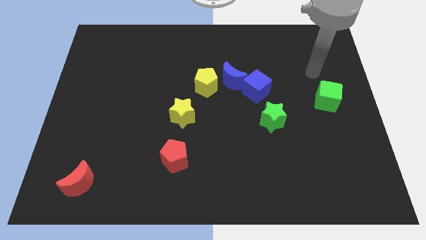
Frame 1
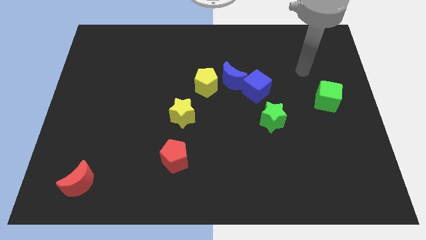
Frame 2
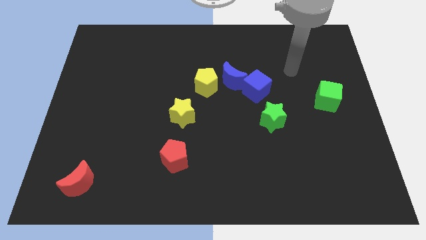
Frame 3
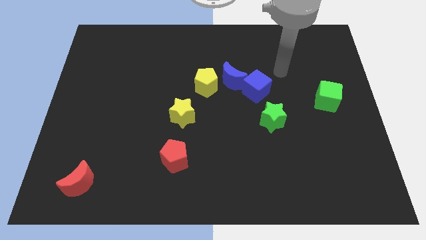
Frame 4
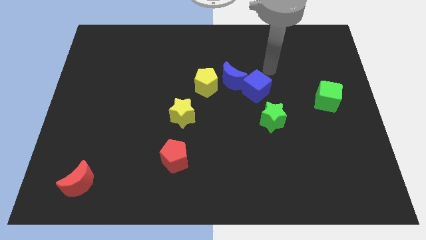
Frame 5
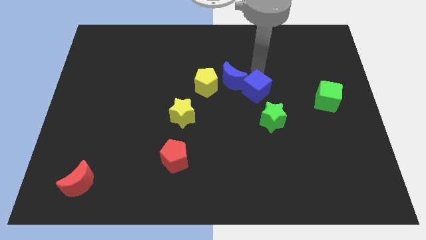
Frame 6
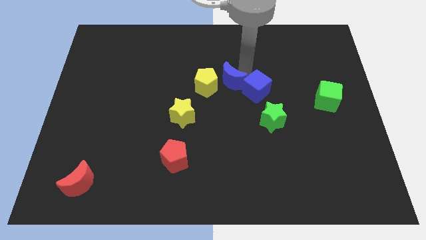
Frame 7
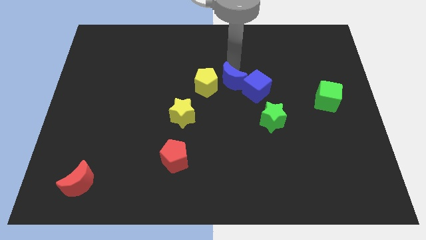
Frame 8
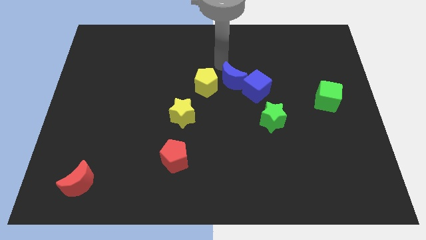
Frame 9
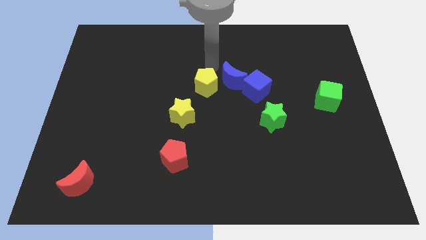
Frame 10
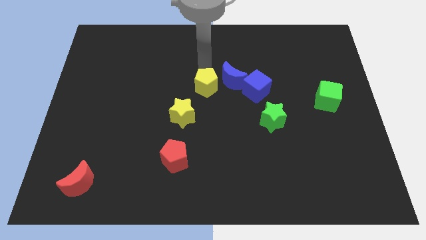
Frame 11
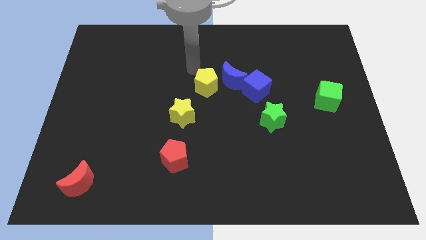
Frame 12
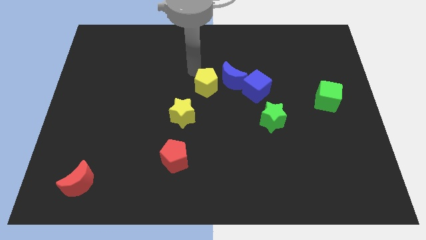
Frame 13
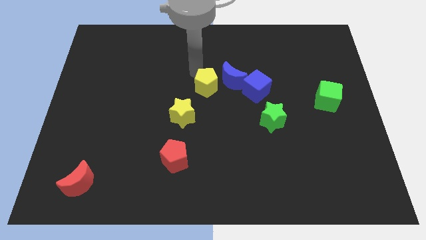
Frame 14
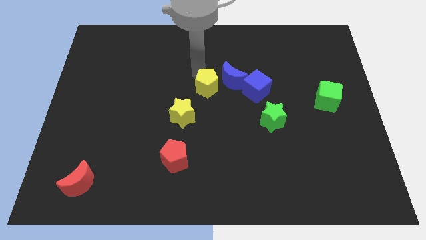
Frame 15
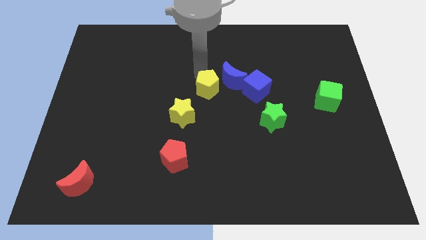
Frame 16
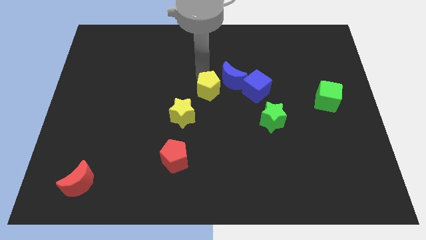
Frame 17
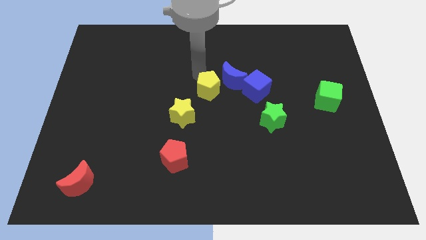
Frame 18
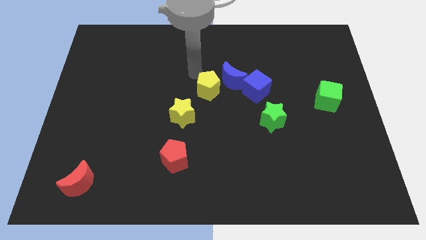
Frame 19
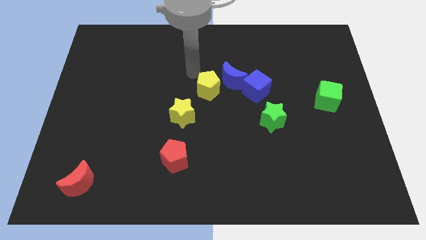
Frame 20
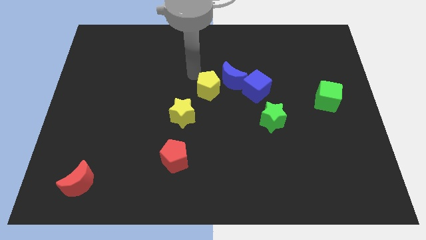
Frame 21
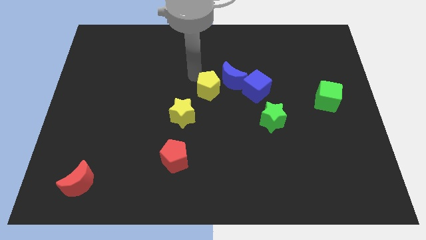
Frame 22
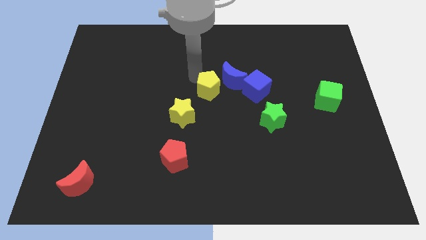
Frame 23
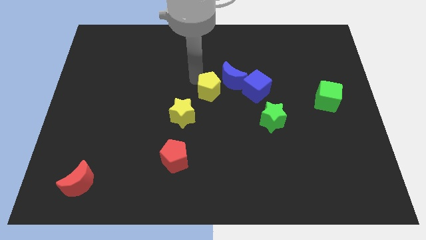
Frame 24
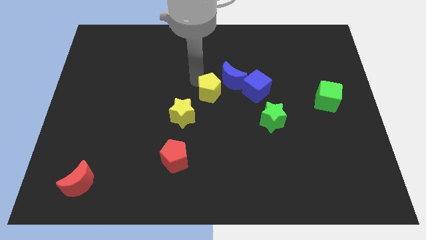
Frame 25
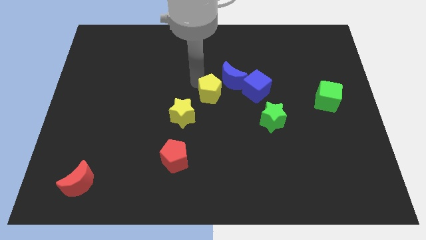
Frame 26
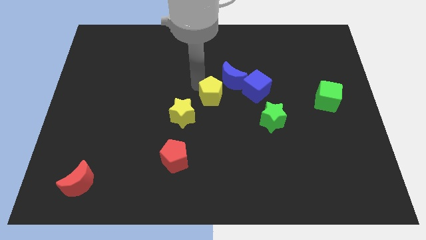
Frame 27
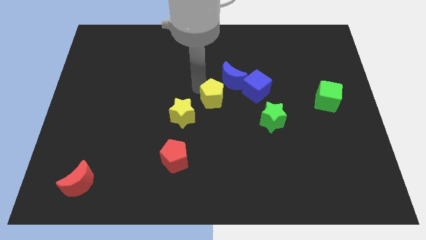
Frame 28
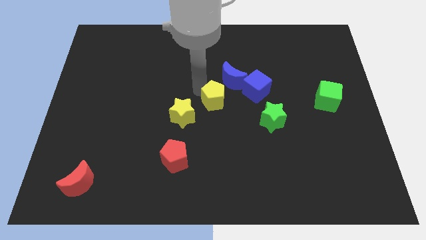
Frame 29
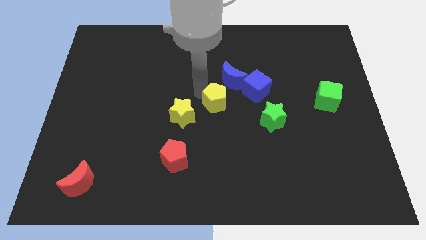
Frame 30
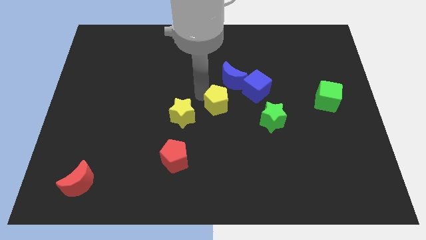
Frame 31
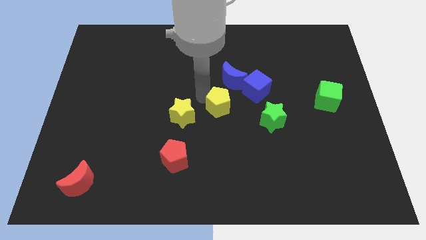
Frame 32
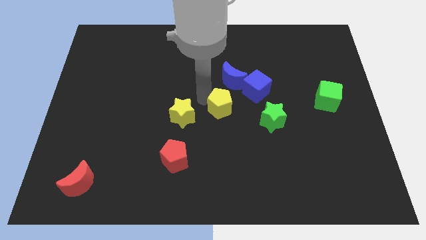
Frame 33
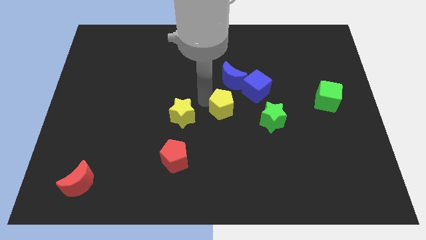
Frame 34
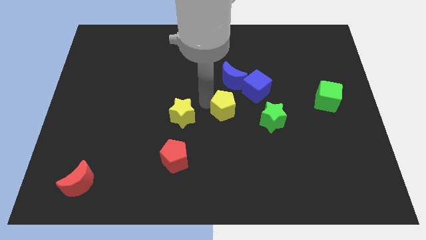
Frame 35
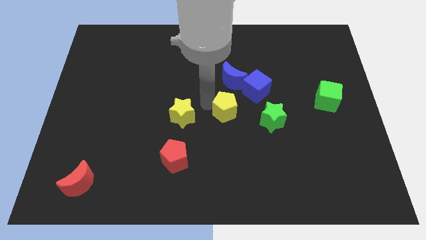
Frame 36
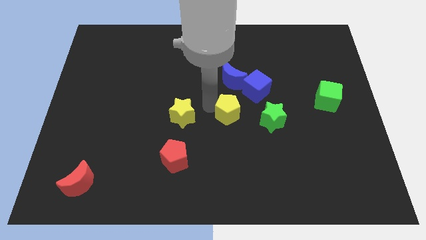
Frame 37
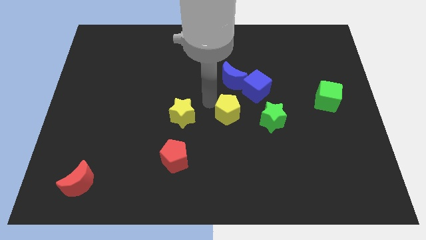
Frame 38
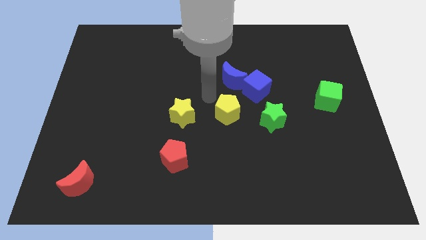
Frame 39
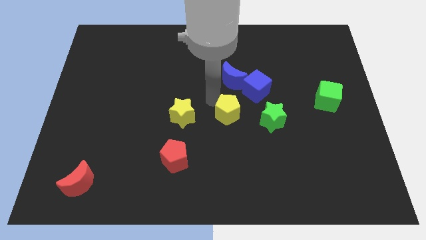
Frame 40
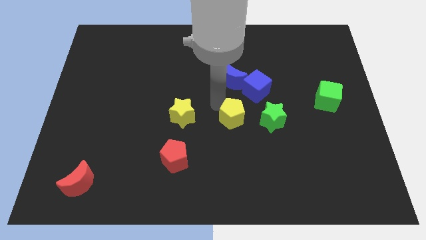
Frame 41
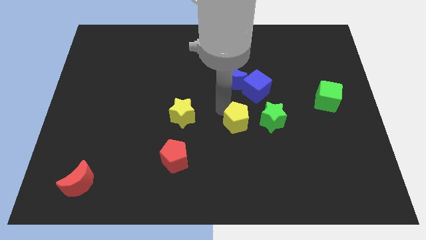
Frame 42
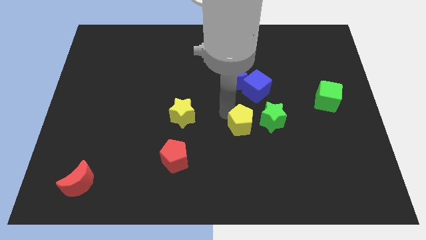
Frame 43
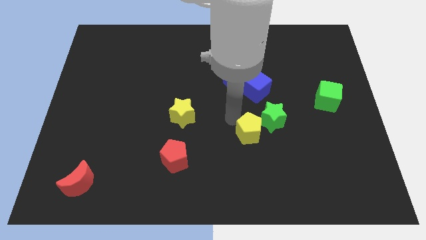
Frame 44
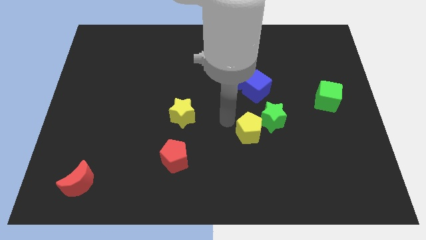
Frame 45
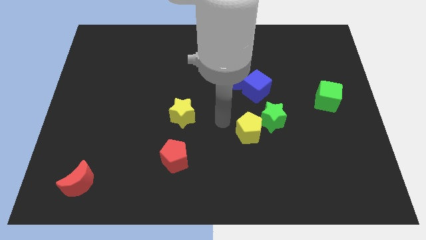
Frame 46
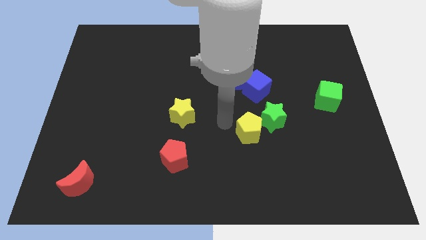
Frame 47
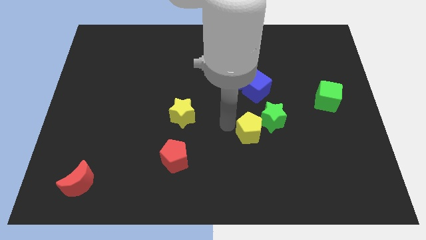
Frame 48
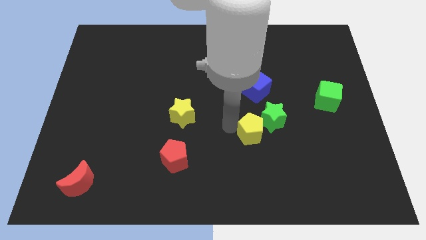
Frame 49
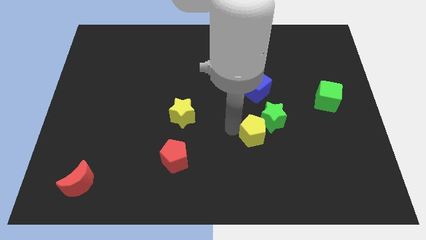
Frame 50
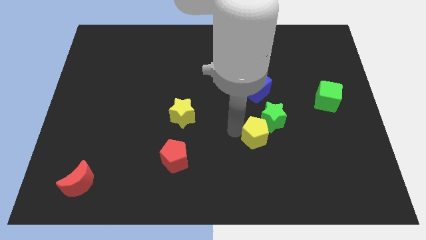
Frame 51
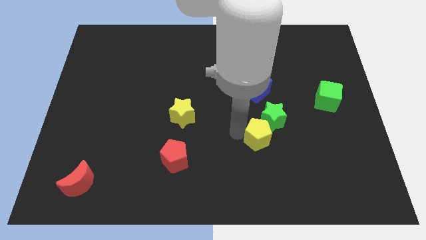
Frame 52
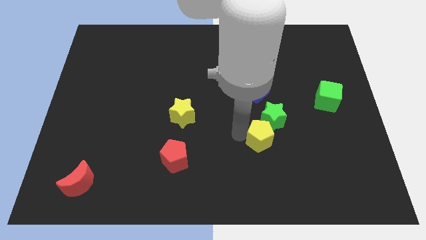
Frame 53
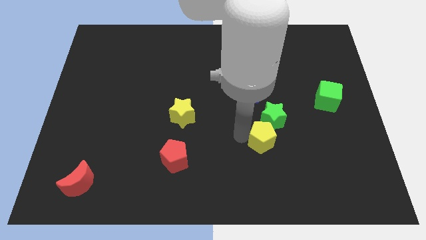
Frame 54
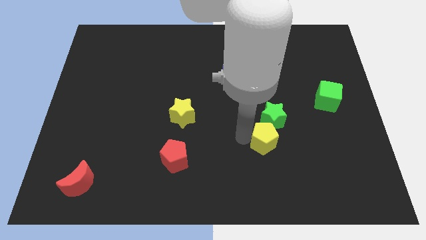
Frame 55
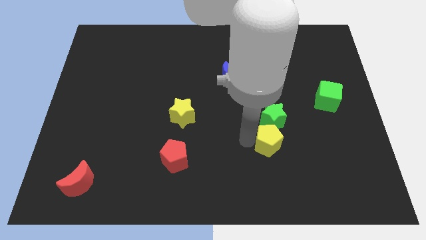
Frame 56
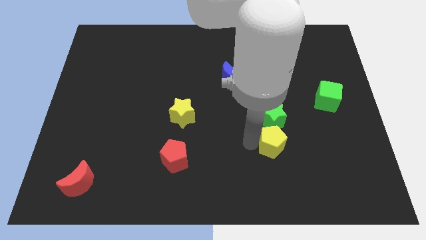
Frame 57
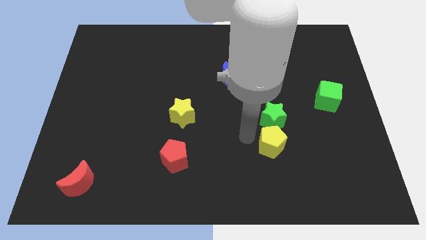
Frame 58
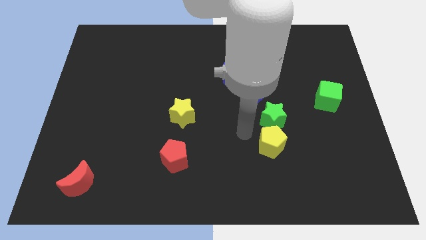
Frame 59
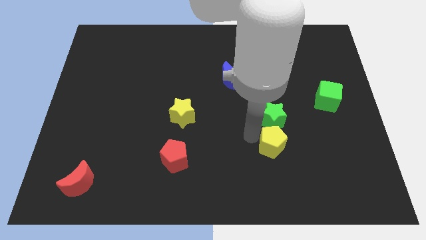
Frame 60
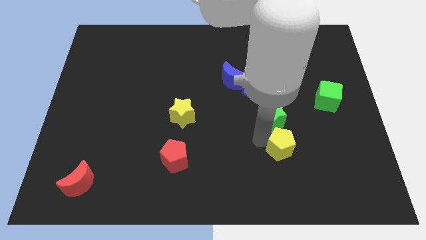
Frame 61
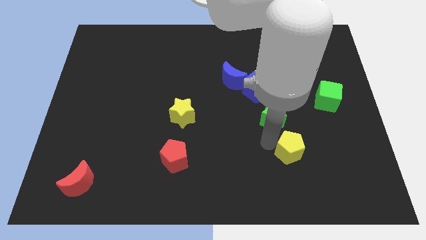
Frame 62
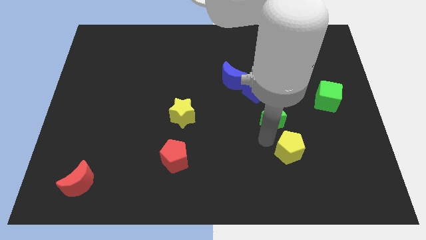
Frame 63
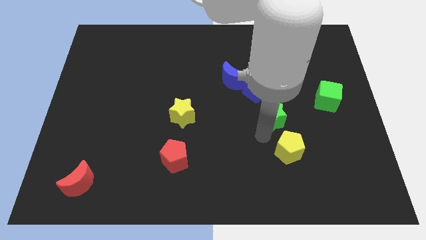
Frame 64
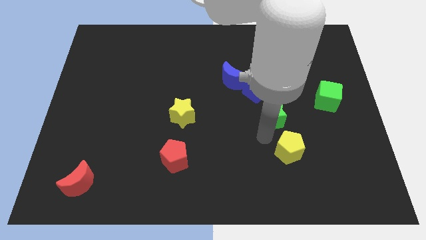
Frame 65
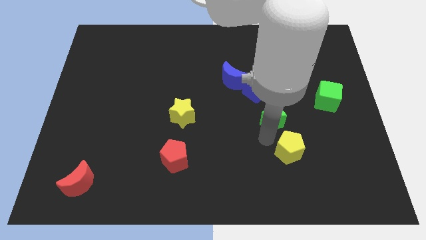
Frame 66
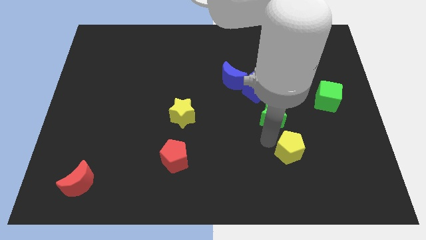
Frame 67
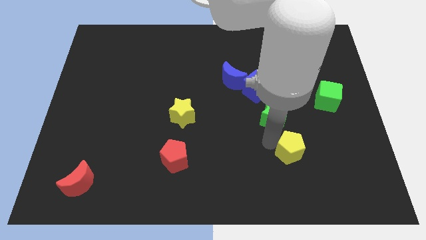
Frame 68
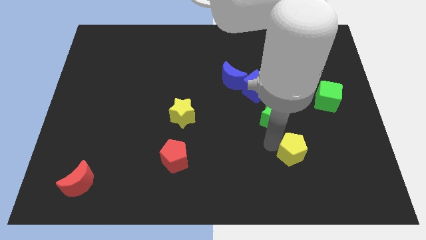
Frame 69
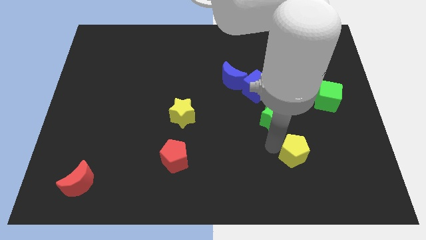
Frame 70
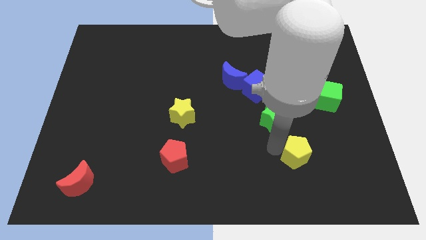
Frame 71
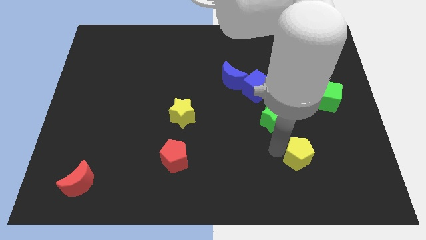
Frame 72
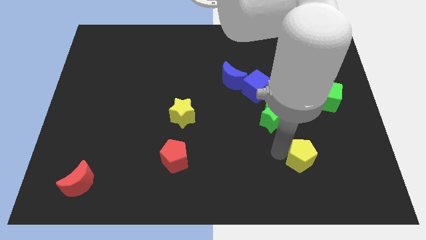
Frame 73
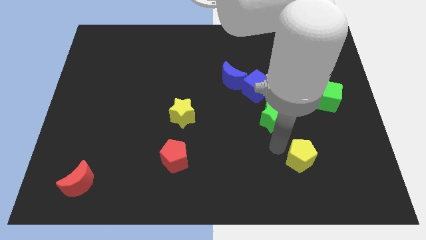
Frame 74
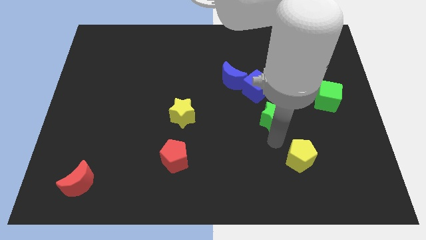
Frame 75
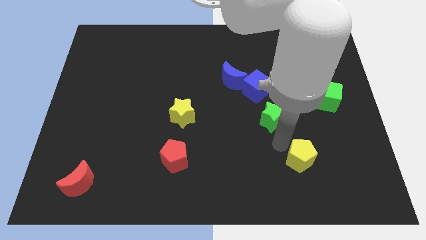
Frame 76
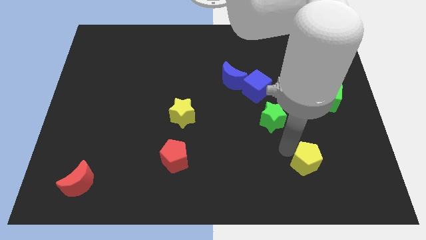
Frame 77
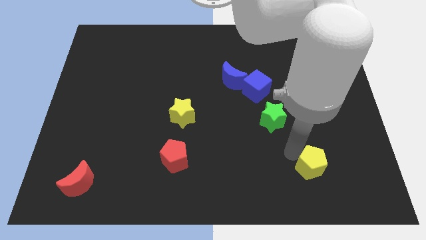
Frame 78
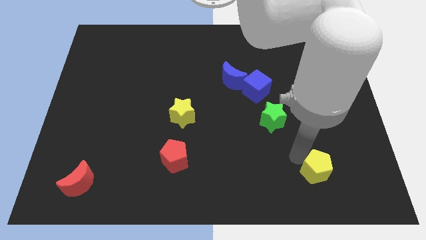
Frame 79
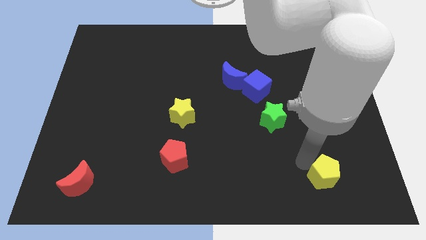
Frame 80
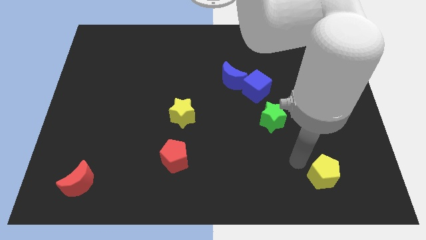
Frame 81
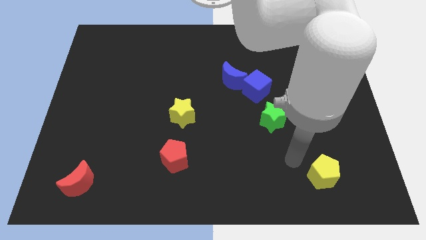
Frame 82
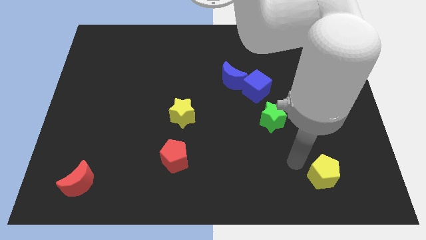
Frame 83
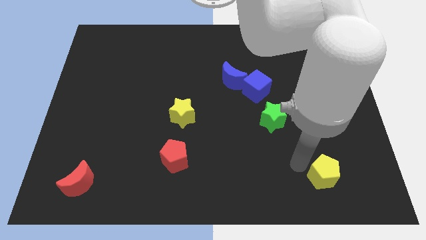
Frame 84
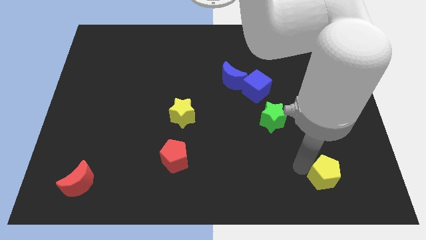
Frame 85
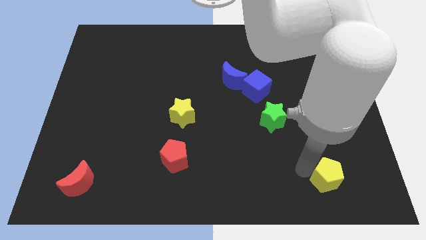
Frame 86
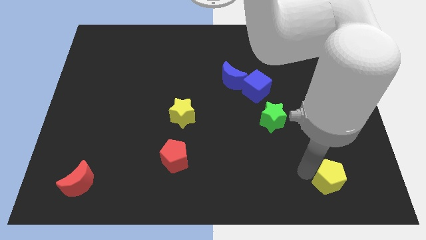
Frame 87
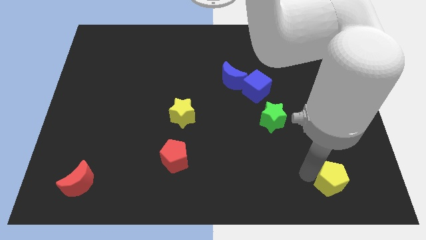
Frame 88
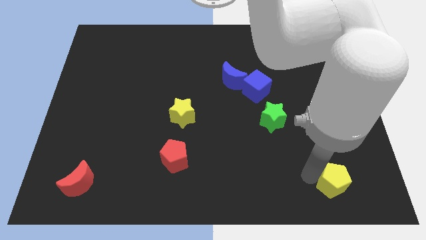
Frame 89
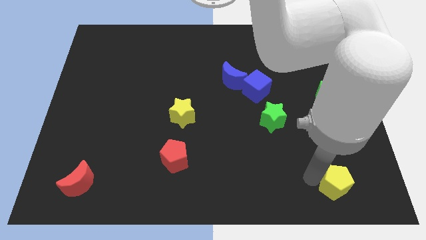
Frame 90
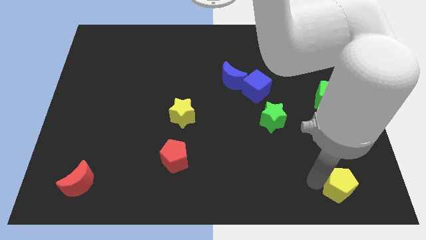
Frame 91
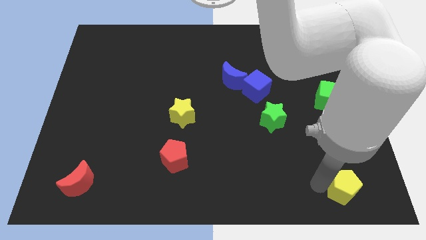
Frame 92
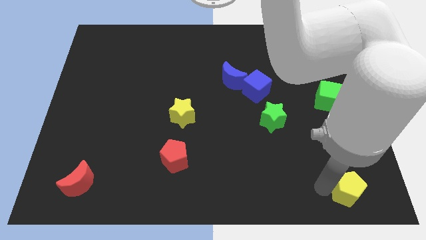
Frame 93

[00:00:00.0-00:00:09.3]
slide the yellow pentagon to the bottom right
